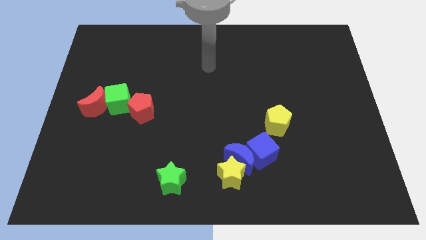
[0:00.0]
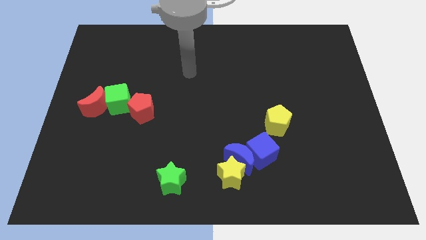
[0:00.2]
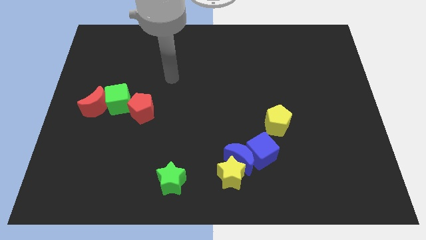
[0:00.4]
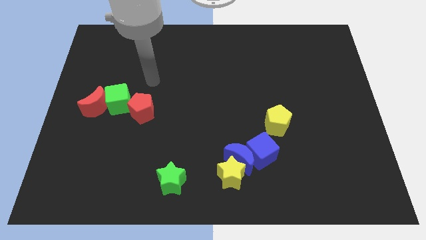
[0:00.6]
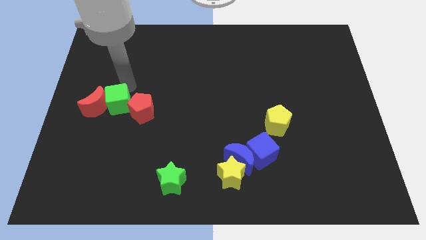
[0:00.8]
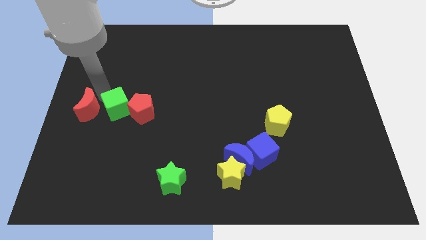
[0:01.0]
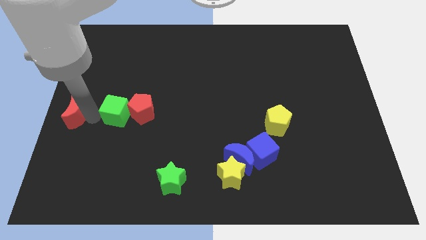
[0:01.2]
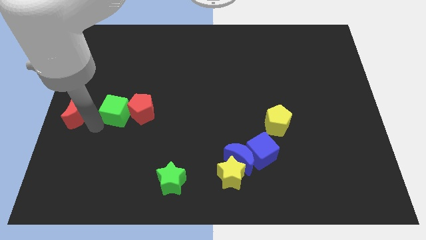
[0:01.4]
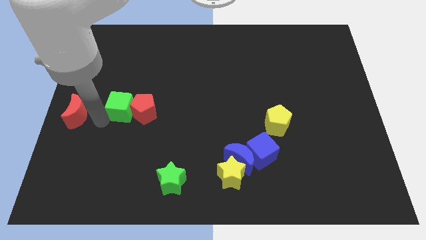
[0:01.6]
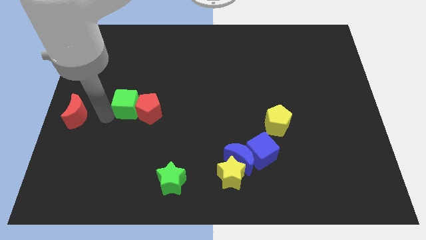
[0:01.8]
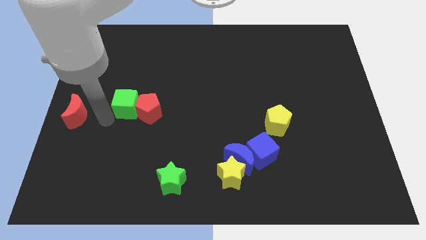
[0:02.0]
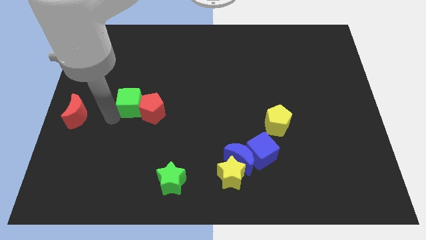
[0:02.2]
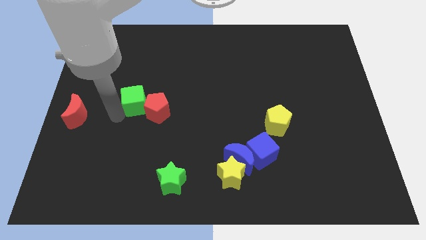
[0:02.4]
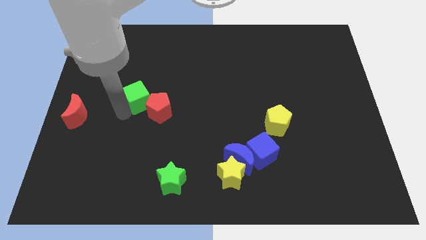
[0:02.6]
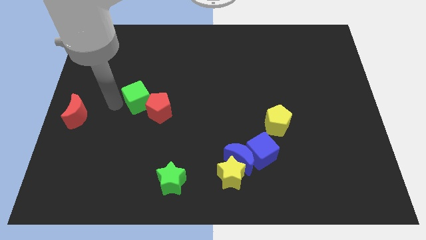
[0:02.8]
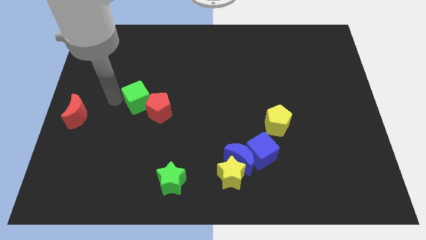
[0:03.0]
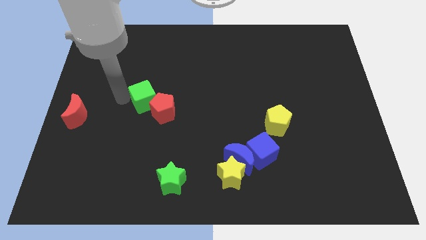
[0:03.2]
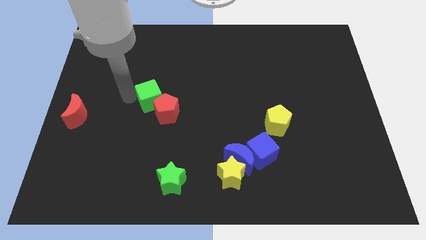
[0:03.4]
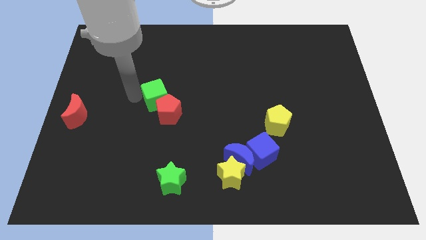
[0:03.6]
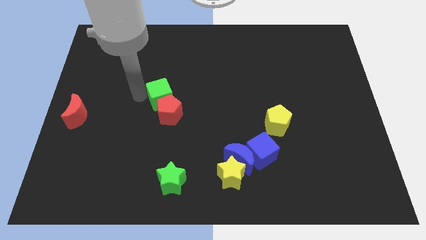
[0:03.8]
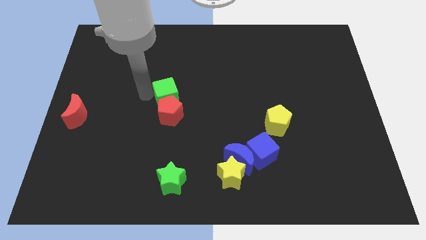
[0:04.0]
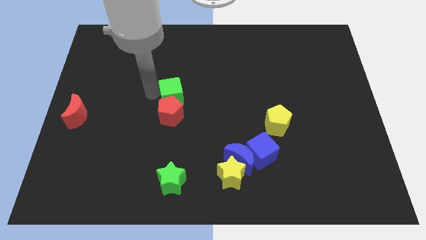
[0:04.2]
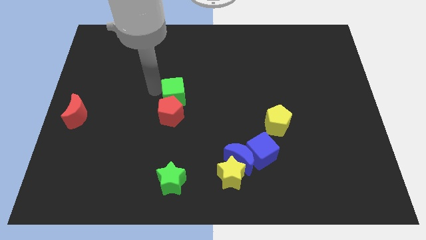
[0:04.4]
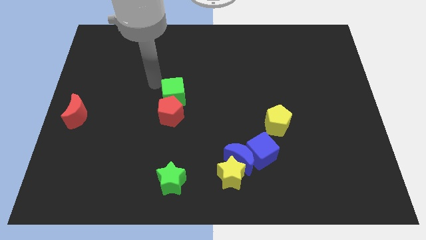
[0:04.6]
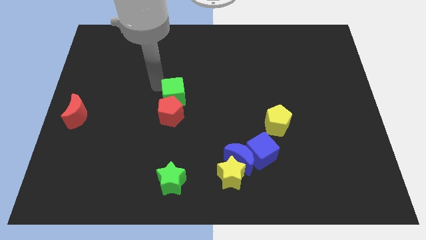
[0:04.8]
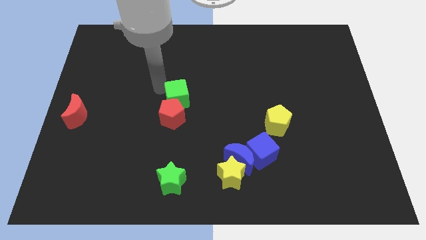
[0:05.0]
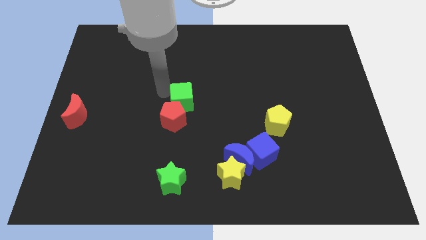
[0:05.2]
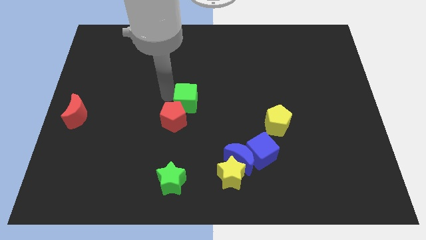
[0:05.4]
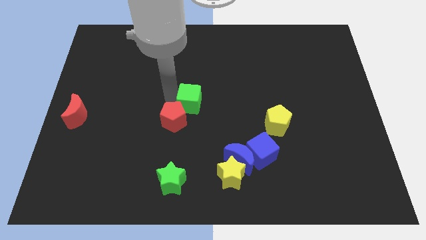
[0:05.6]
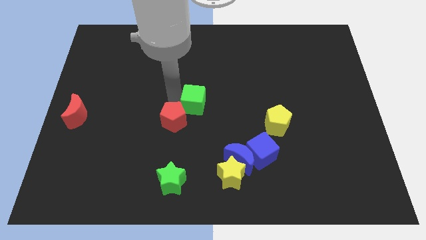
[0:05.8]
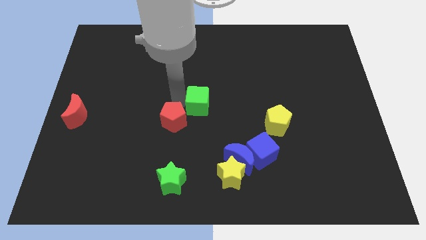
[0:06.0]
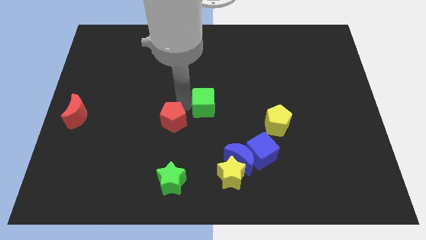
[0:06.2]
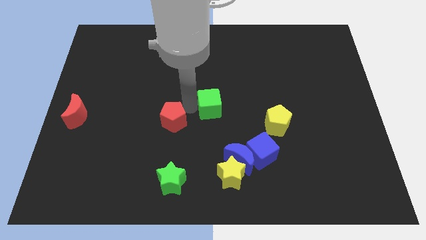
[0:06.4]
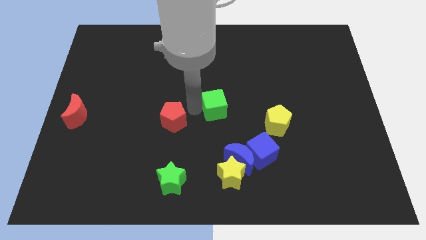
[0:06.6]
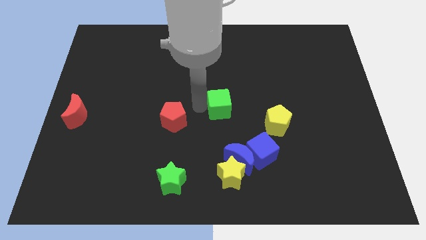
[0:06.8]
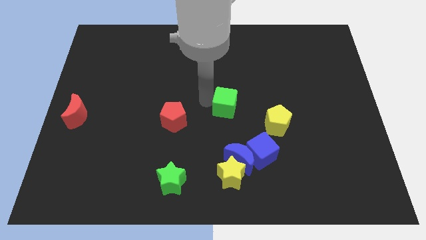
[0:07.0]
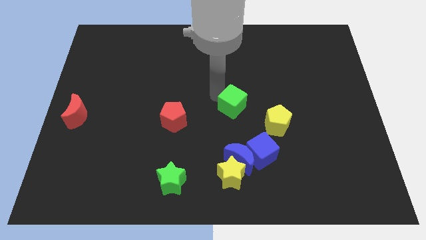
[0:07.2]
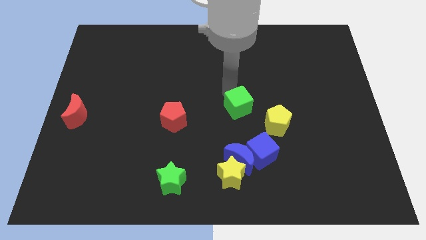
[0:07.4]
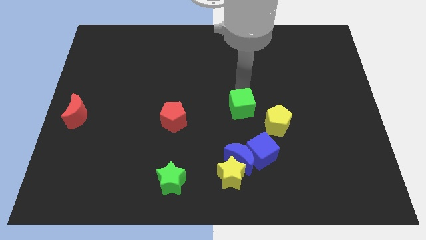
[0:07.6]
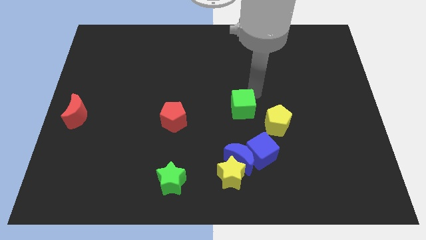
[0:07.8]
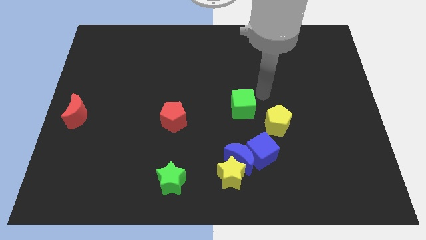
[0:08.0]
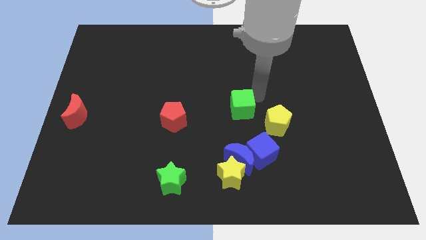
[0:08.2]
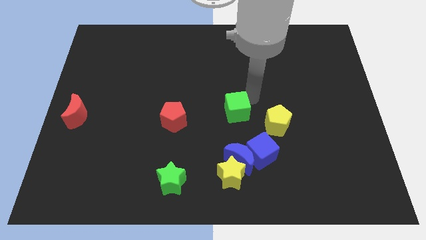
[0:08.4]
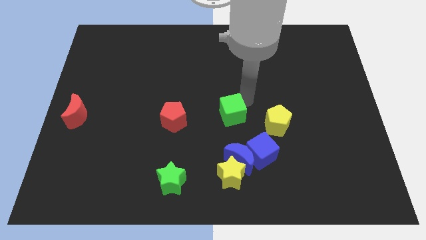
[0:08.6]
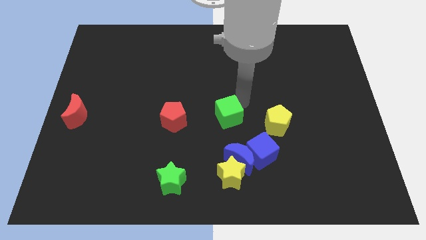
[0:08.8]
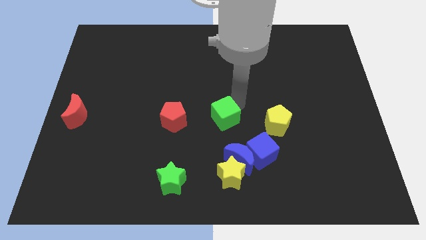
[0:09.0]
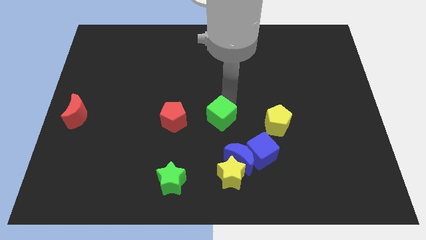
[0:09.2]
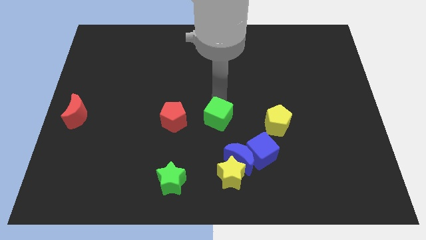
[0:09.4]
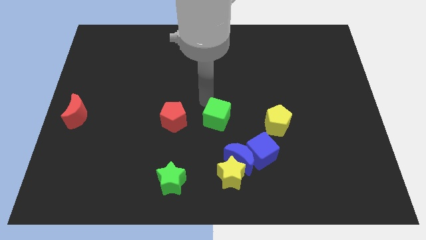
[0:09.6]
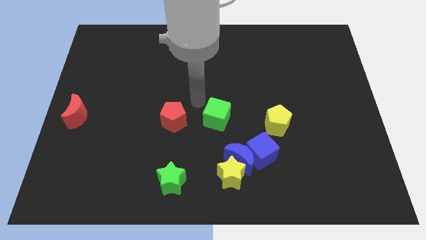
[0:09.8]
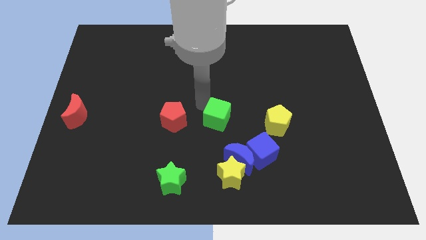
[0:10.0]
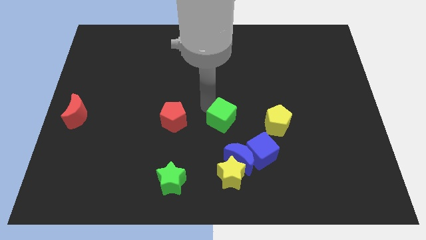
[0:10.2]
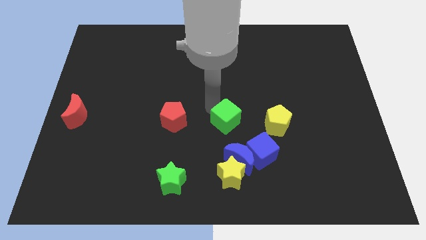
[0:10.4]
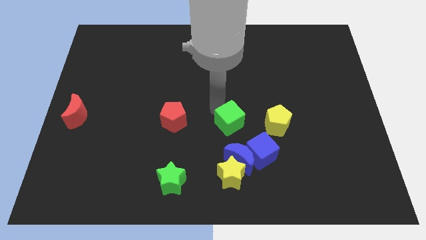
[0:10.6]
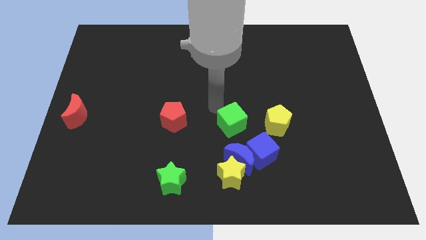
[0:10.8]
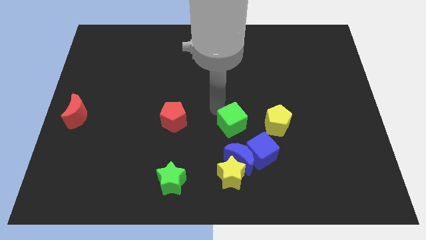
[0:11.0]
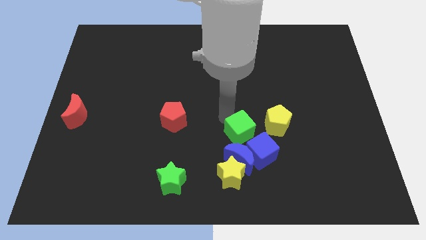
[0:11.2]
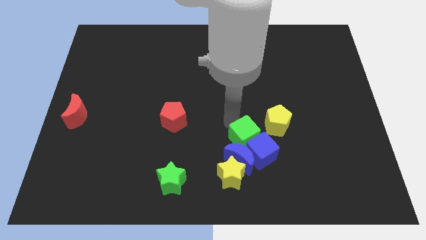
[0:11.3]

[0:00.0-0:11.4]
put the green cube next to the blue cube

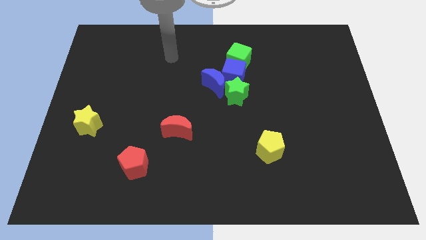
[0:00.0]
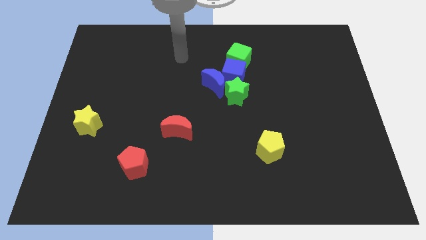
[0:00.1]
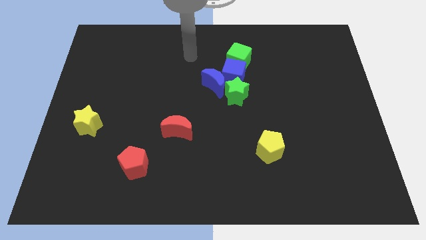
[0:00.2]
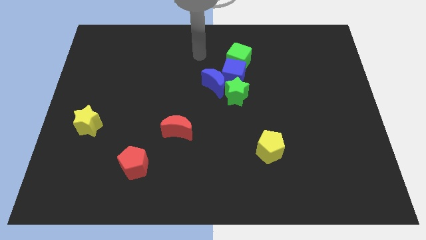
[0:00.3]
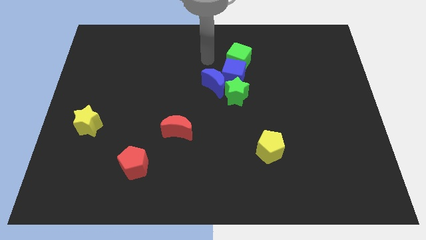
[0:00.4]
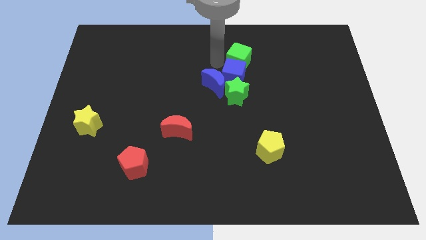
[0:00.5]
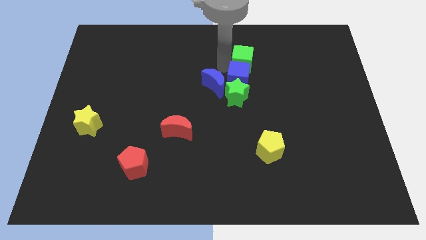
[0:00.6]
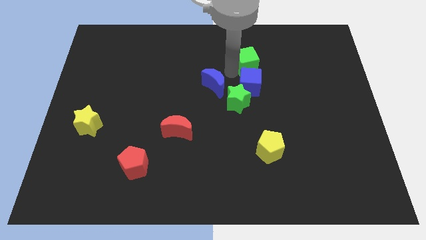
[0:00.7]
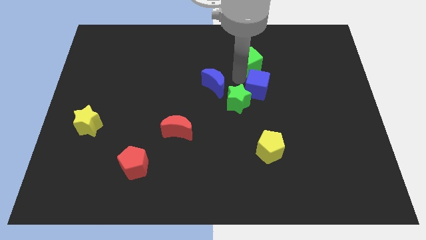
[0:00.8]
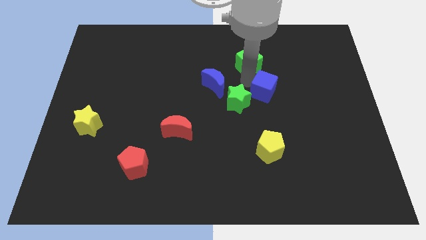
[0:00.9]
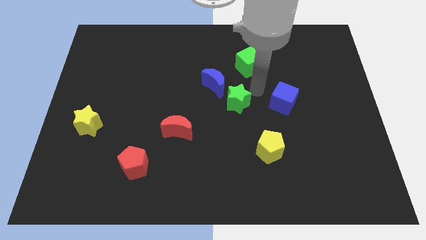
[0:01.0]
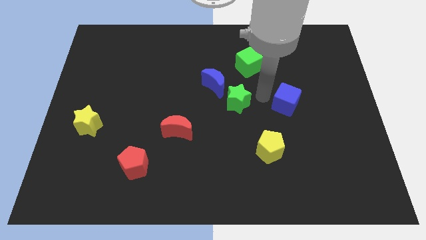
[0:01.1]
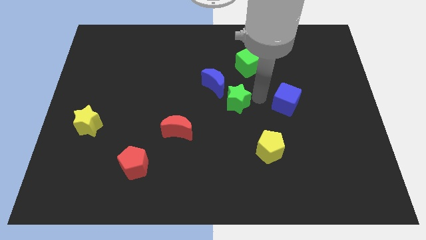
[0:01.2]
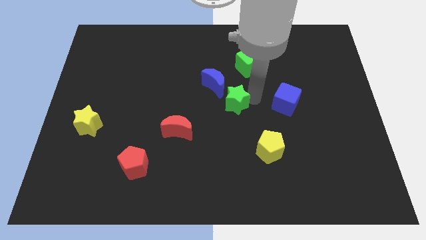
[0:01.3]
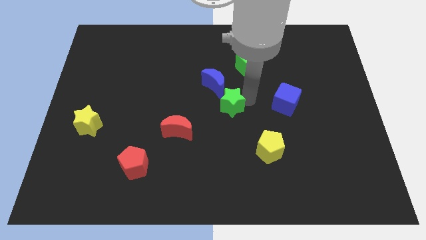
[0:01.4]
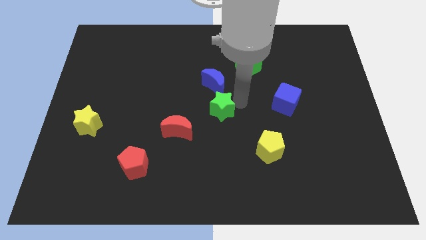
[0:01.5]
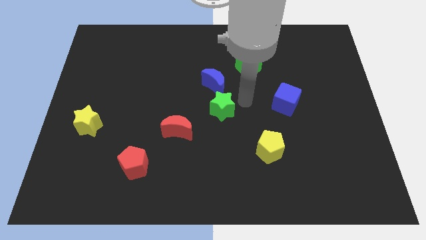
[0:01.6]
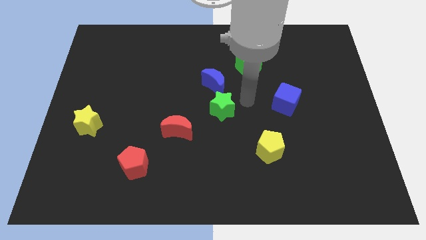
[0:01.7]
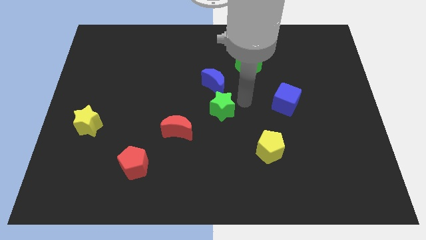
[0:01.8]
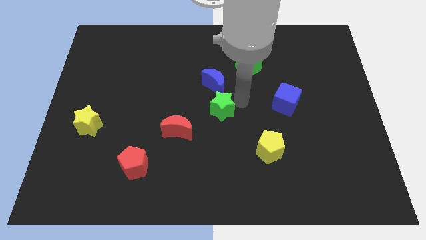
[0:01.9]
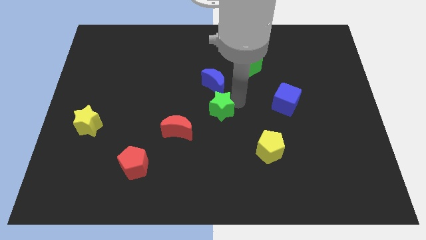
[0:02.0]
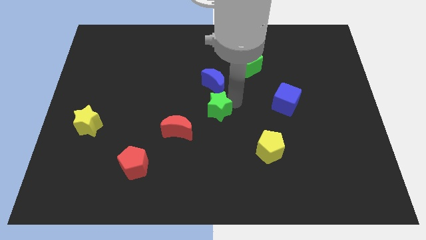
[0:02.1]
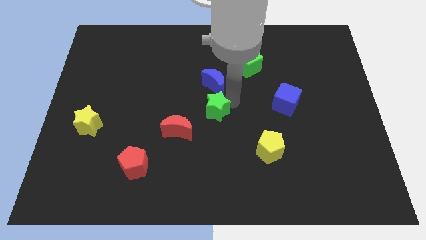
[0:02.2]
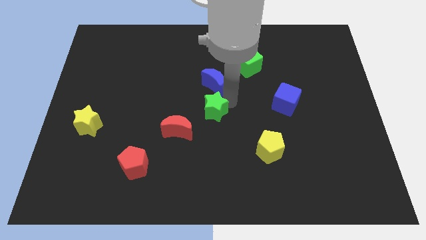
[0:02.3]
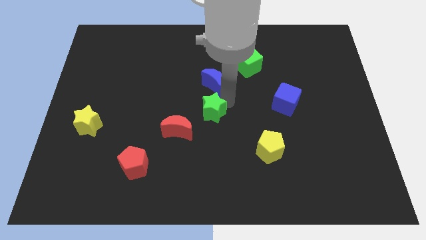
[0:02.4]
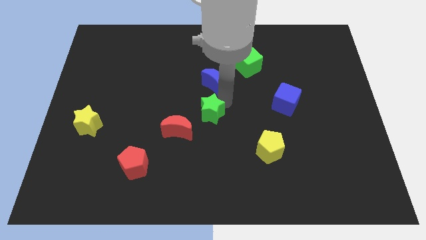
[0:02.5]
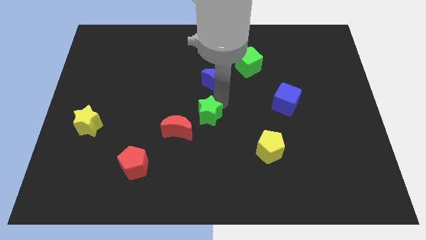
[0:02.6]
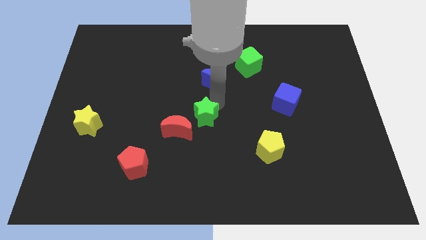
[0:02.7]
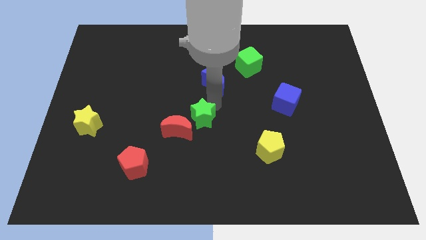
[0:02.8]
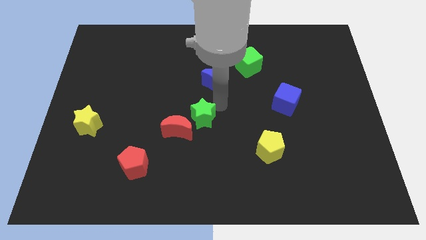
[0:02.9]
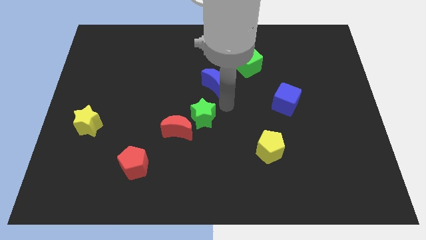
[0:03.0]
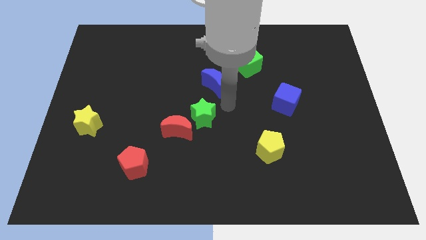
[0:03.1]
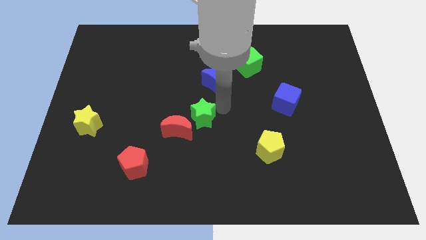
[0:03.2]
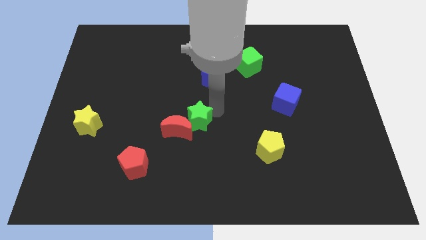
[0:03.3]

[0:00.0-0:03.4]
put the green star towards the red moon
